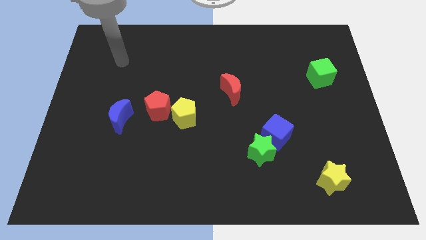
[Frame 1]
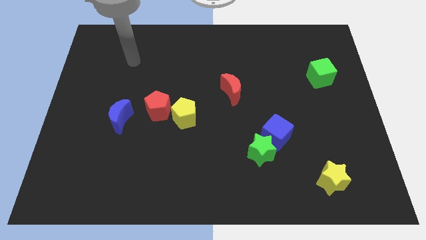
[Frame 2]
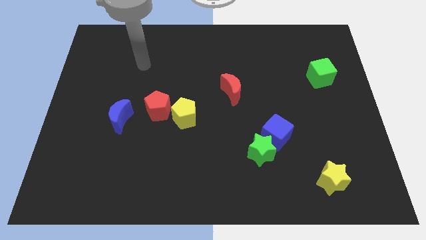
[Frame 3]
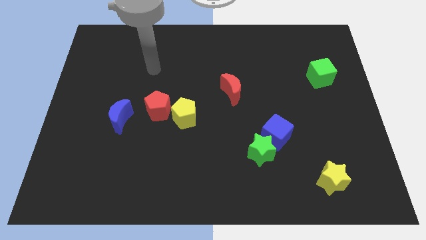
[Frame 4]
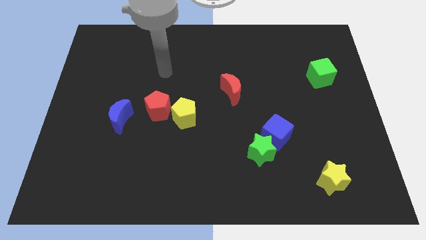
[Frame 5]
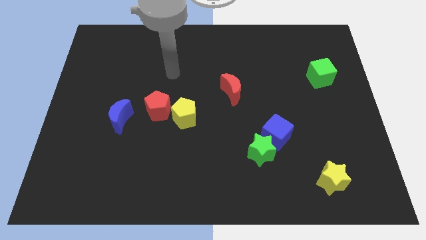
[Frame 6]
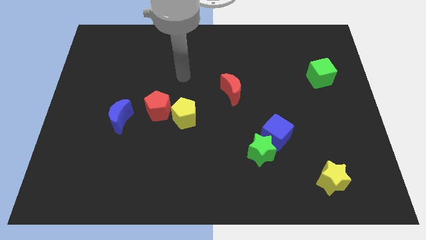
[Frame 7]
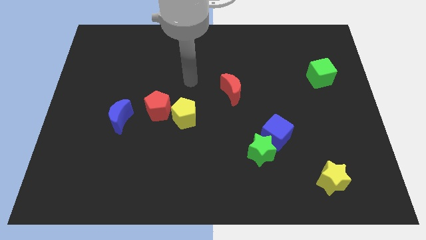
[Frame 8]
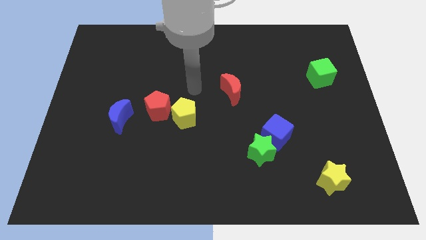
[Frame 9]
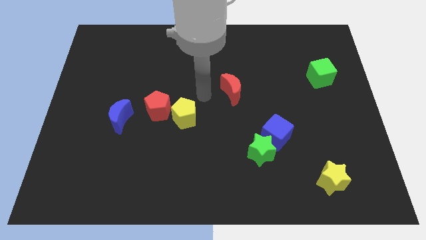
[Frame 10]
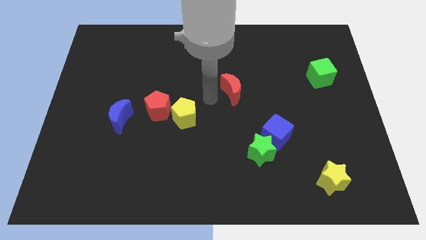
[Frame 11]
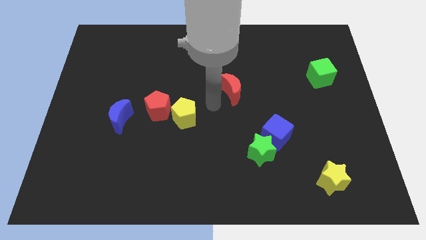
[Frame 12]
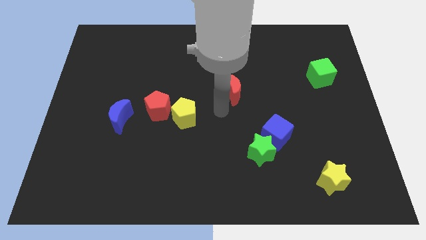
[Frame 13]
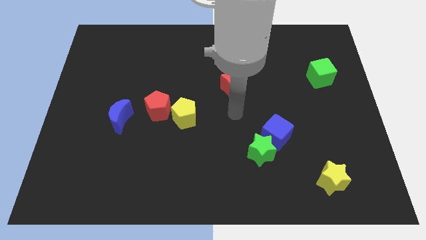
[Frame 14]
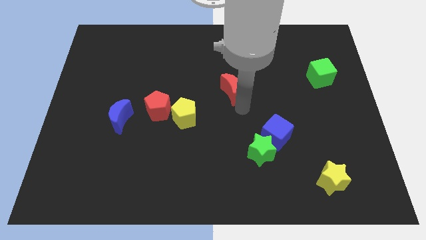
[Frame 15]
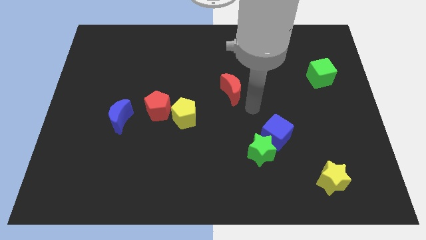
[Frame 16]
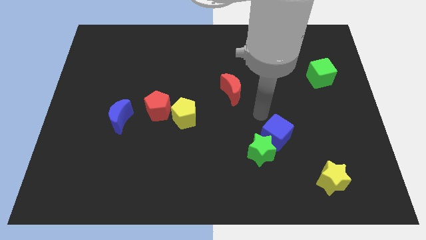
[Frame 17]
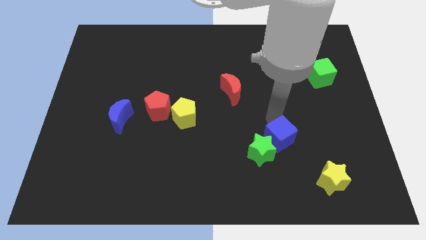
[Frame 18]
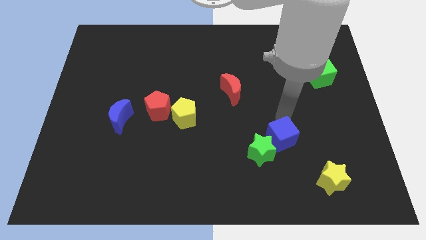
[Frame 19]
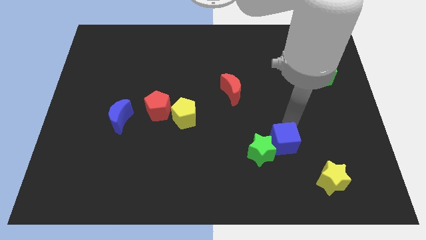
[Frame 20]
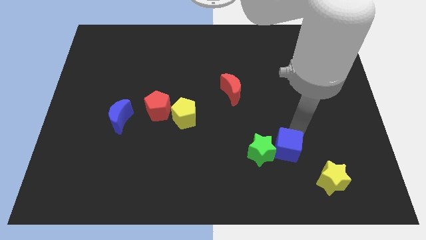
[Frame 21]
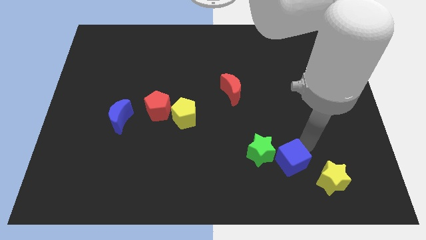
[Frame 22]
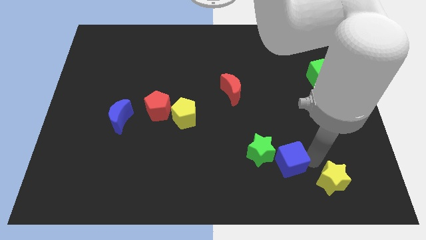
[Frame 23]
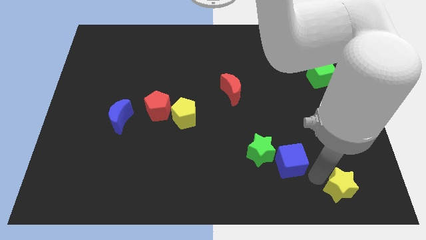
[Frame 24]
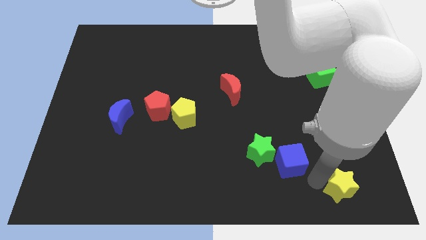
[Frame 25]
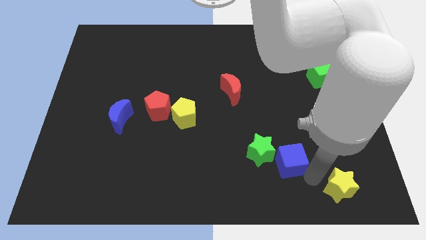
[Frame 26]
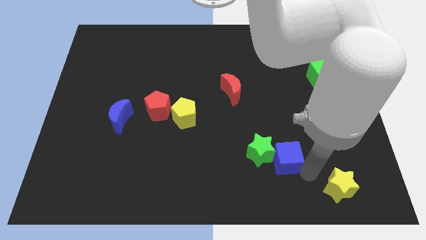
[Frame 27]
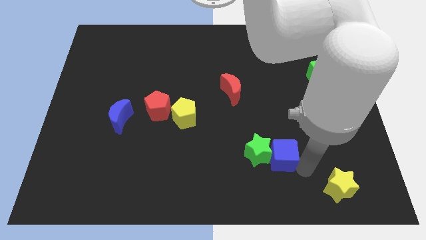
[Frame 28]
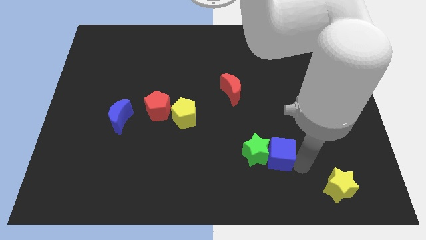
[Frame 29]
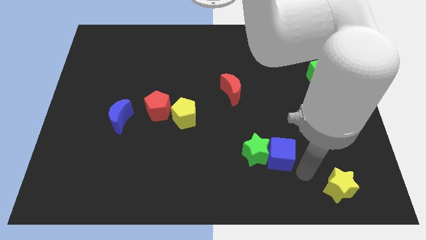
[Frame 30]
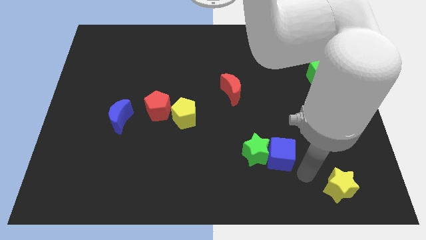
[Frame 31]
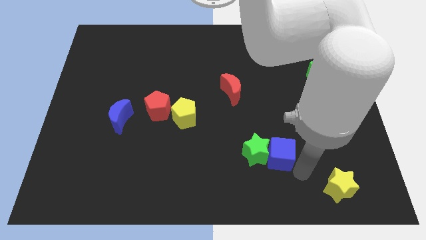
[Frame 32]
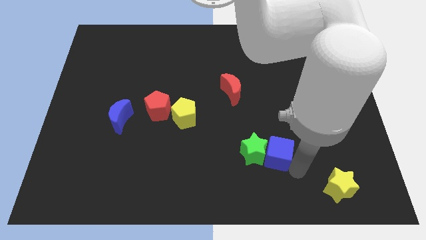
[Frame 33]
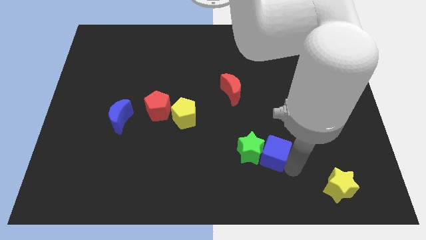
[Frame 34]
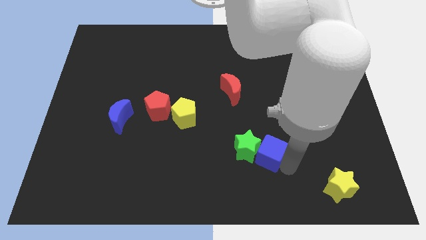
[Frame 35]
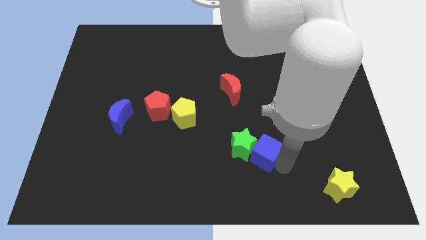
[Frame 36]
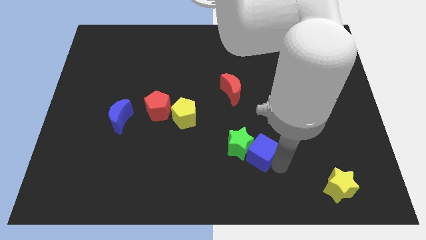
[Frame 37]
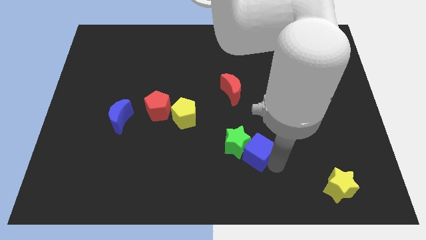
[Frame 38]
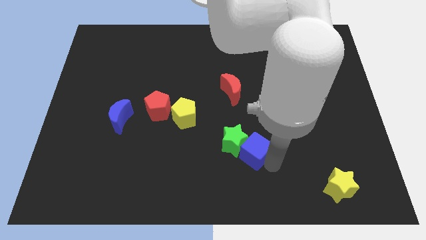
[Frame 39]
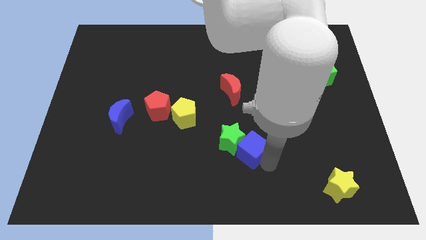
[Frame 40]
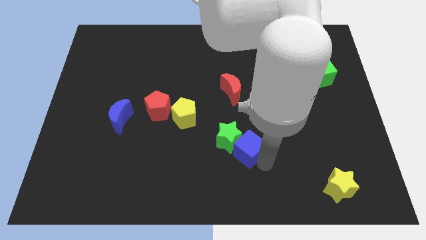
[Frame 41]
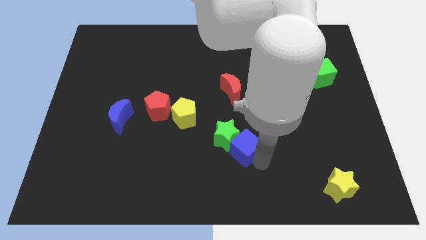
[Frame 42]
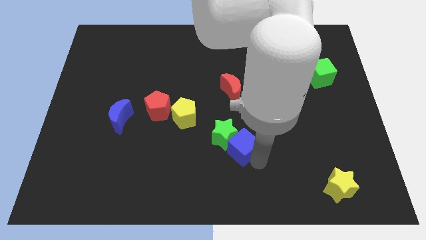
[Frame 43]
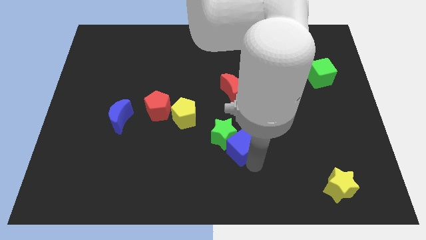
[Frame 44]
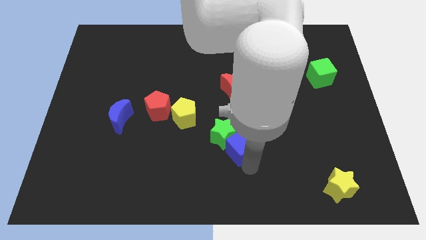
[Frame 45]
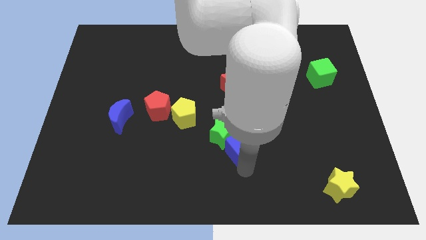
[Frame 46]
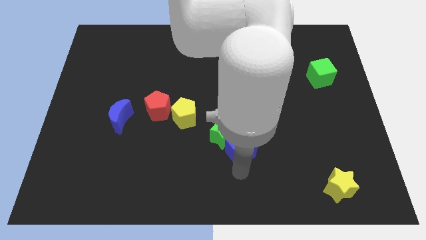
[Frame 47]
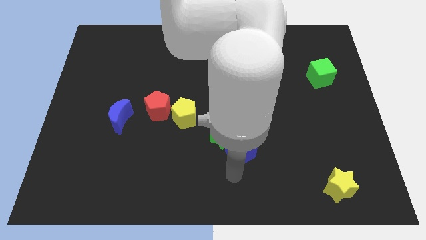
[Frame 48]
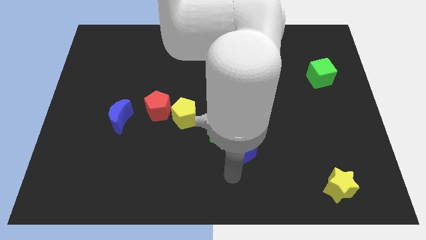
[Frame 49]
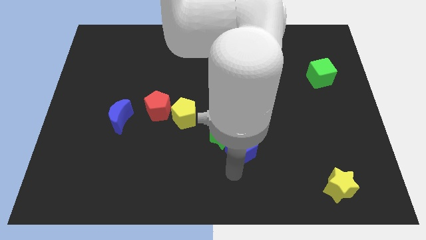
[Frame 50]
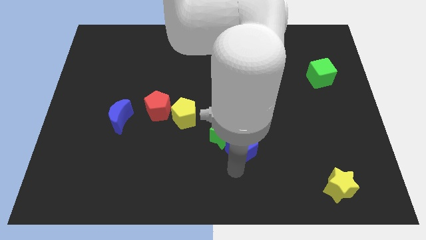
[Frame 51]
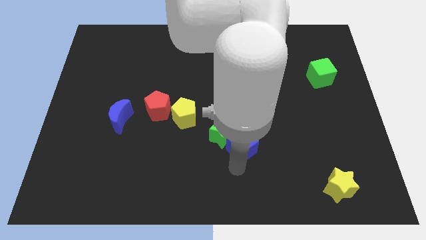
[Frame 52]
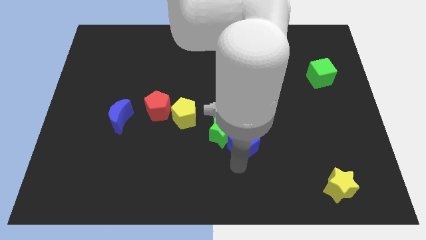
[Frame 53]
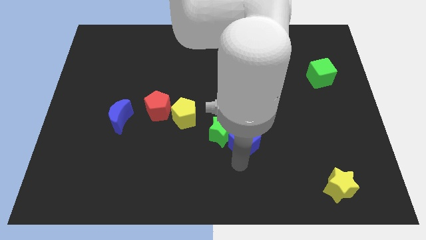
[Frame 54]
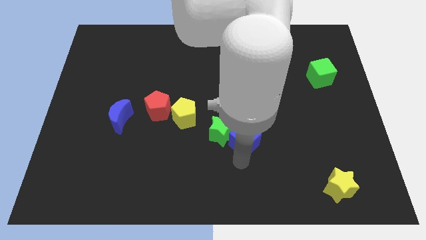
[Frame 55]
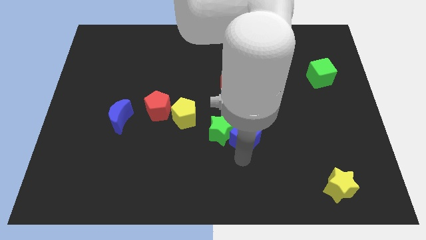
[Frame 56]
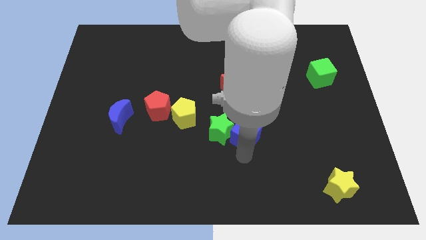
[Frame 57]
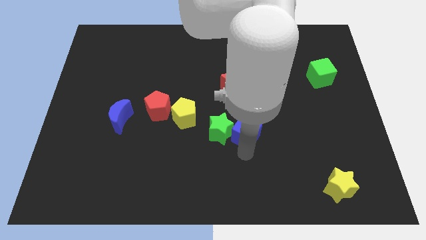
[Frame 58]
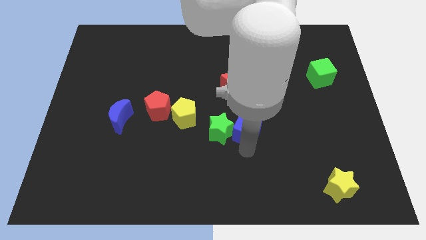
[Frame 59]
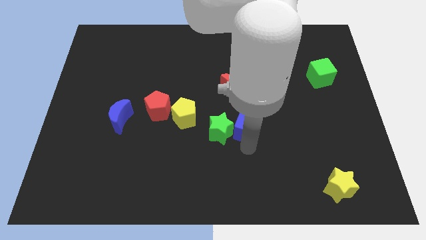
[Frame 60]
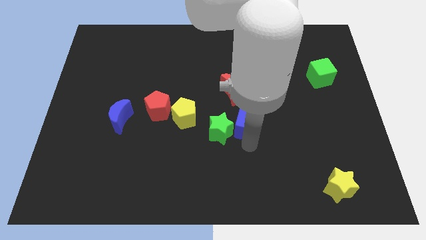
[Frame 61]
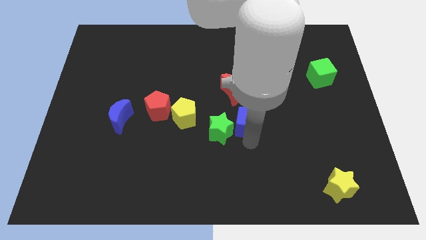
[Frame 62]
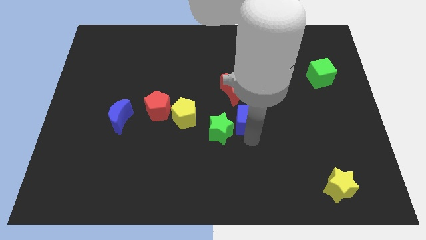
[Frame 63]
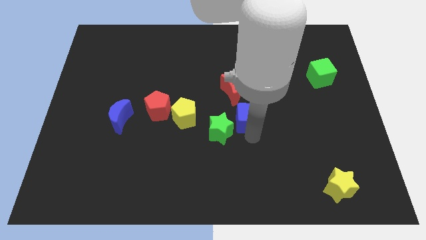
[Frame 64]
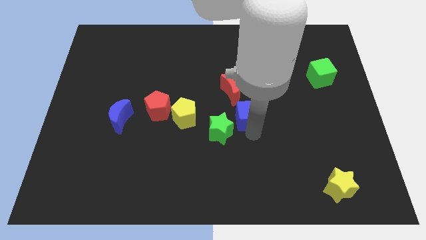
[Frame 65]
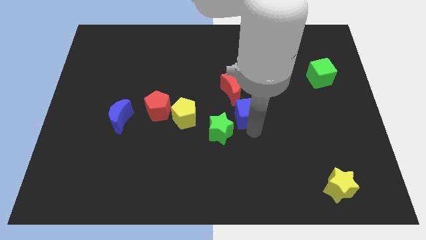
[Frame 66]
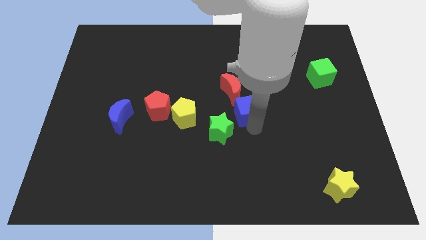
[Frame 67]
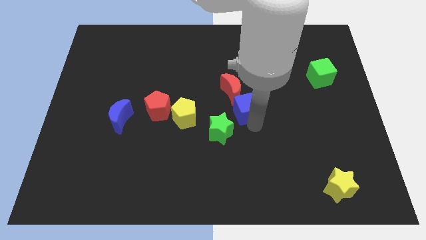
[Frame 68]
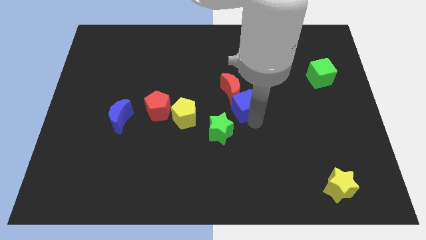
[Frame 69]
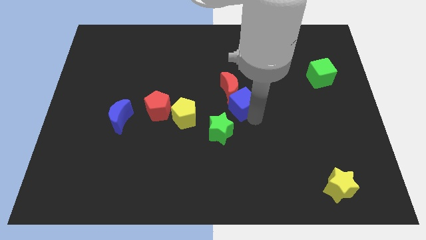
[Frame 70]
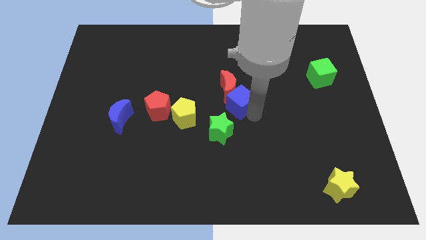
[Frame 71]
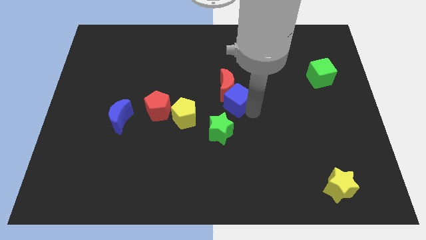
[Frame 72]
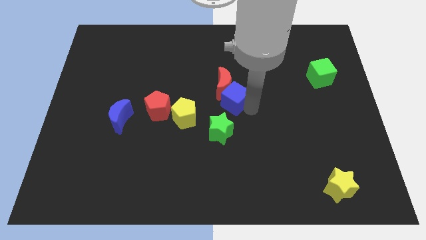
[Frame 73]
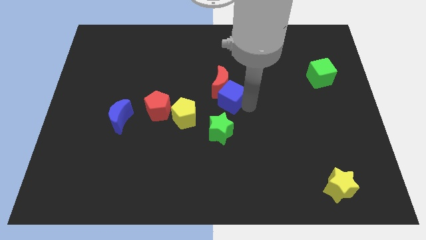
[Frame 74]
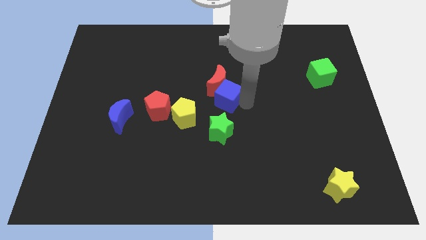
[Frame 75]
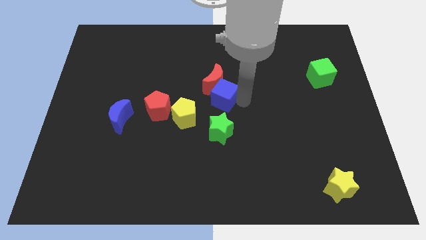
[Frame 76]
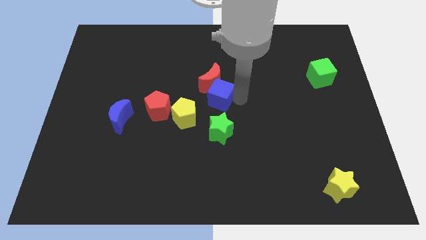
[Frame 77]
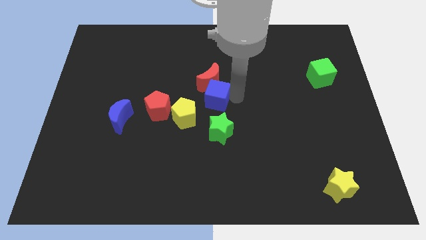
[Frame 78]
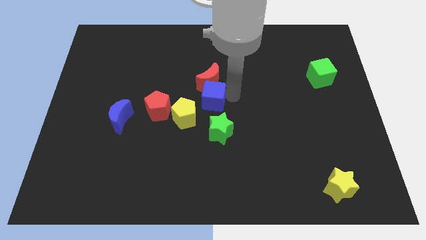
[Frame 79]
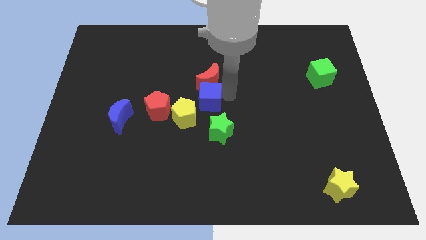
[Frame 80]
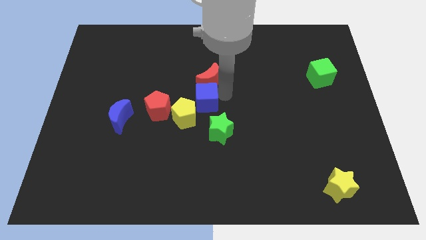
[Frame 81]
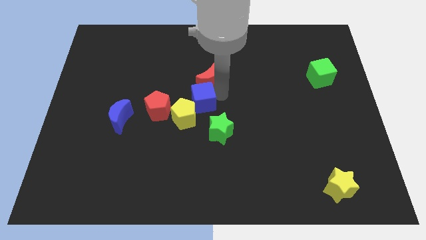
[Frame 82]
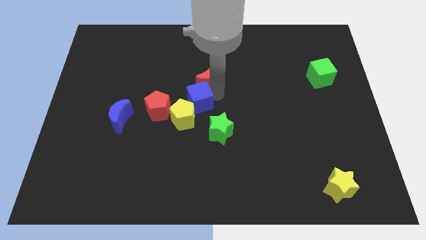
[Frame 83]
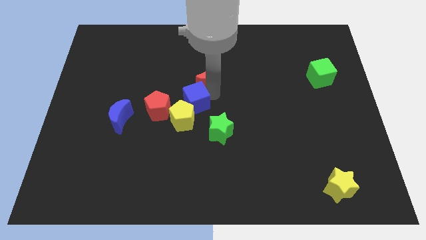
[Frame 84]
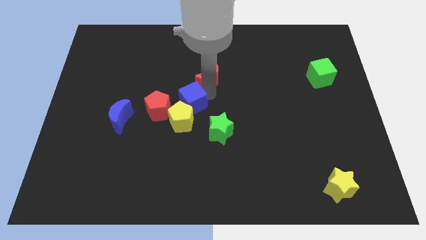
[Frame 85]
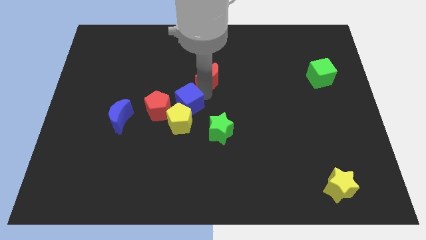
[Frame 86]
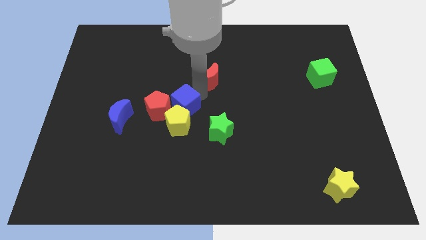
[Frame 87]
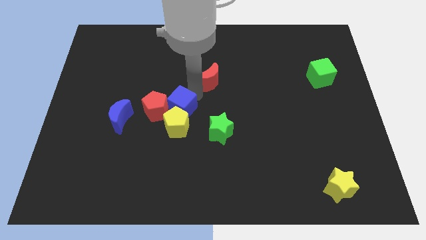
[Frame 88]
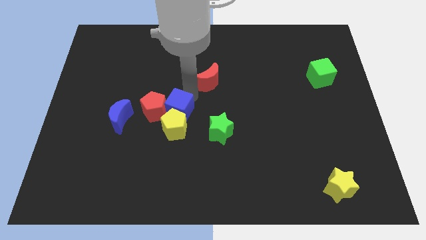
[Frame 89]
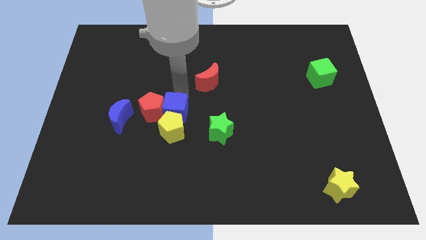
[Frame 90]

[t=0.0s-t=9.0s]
move the blue cube left
